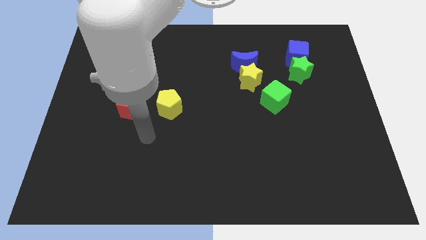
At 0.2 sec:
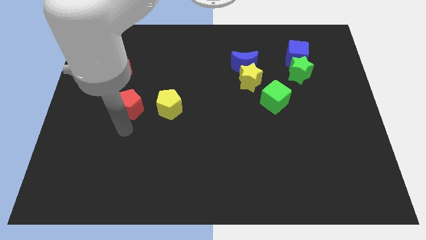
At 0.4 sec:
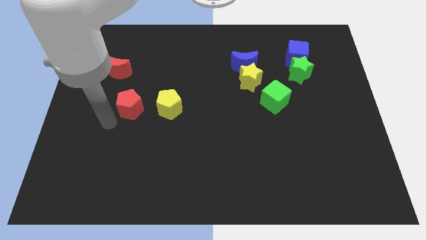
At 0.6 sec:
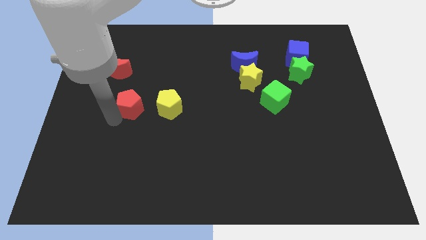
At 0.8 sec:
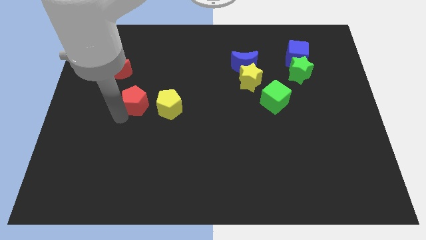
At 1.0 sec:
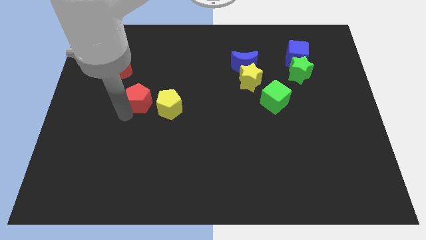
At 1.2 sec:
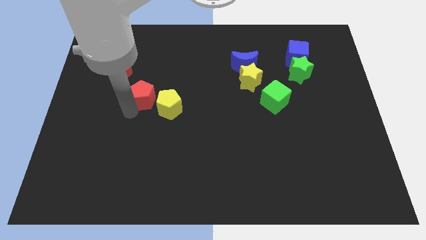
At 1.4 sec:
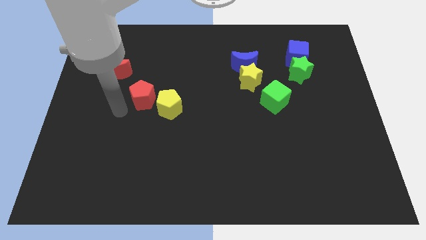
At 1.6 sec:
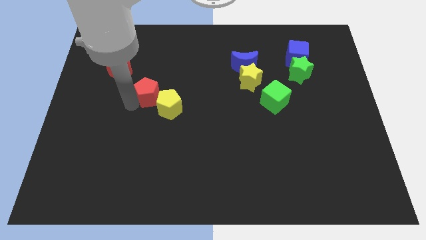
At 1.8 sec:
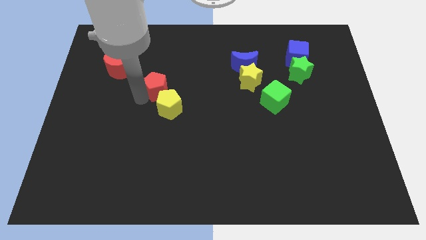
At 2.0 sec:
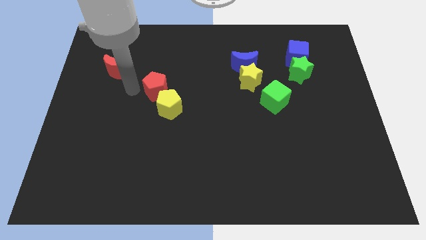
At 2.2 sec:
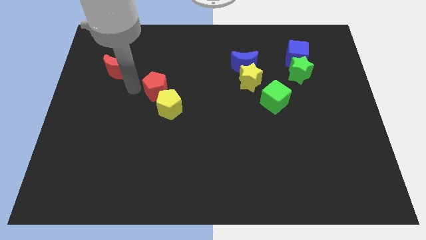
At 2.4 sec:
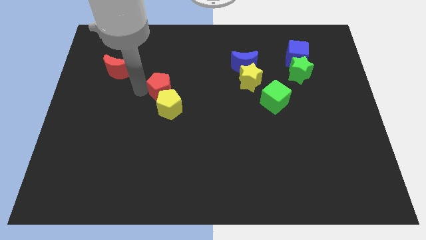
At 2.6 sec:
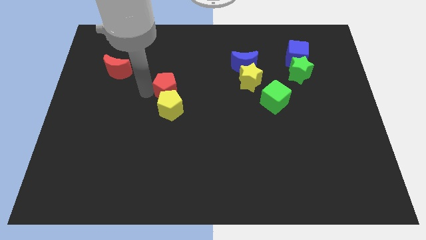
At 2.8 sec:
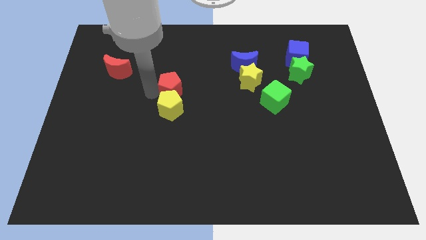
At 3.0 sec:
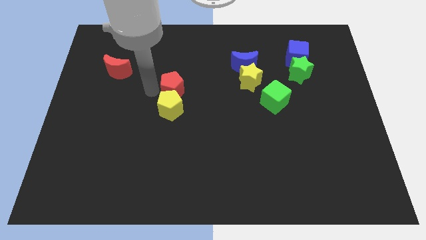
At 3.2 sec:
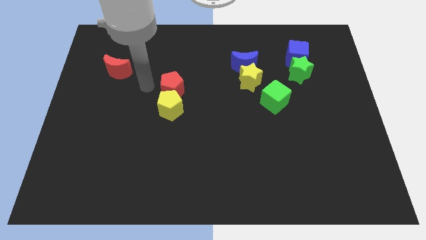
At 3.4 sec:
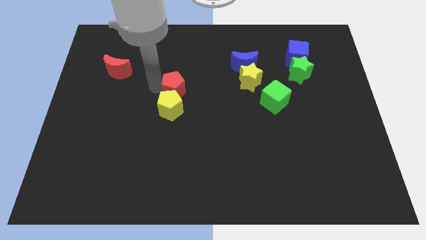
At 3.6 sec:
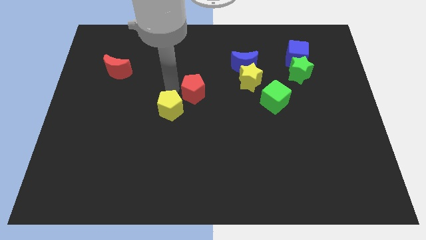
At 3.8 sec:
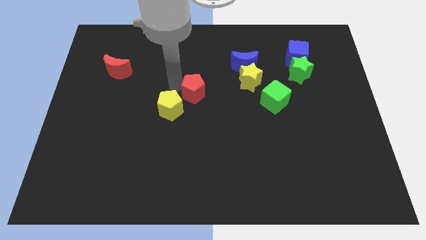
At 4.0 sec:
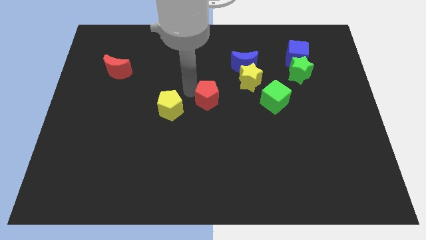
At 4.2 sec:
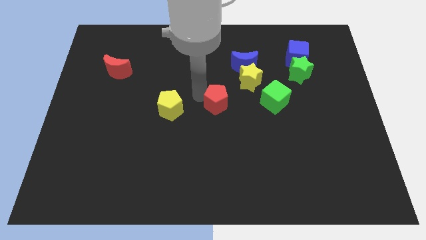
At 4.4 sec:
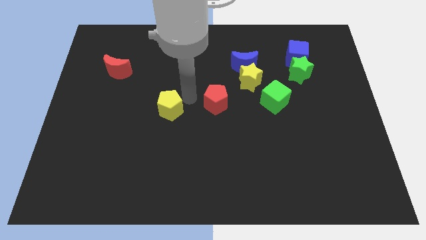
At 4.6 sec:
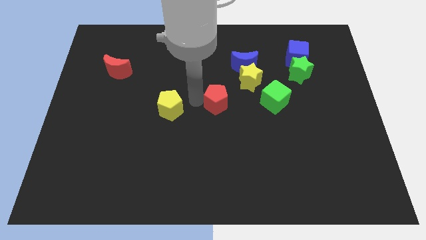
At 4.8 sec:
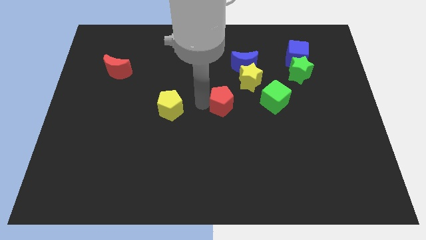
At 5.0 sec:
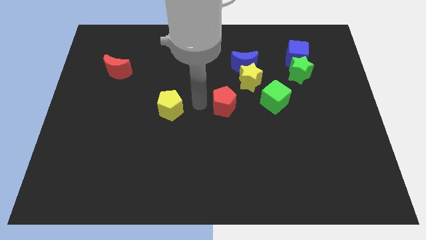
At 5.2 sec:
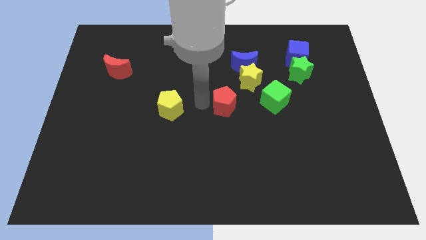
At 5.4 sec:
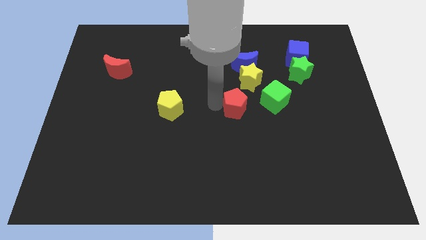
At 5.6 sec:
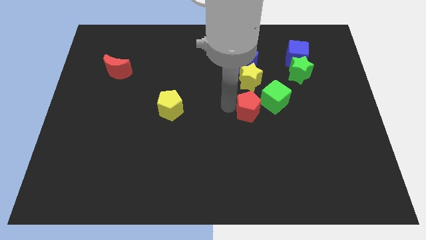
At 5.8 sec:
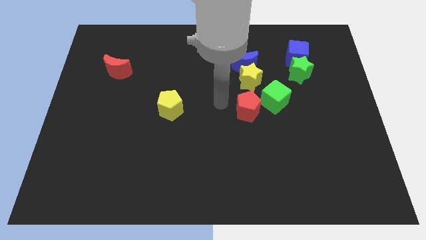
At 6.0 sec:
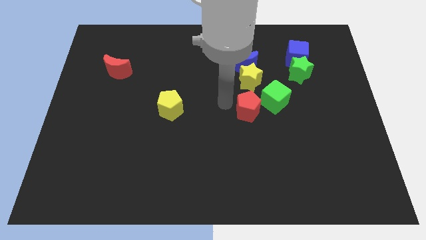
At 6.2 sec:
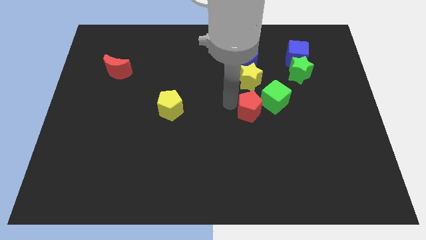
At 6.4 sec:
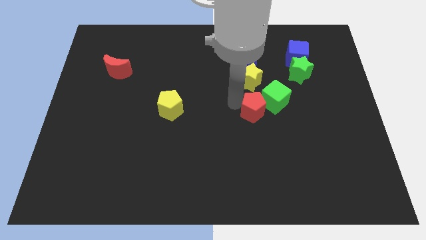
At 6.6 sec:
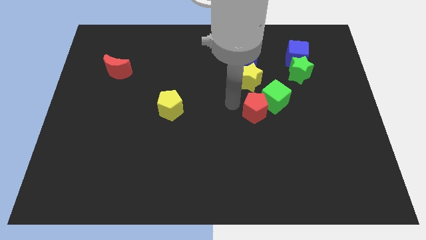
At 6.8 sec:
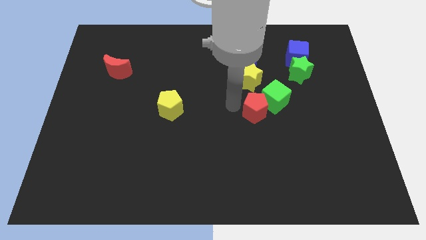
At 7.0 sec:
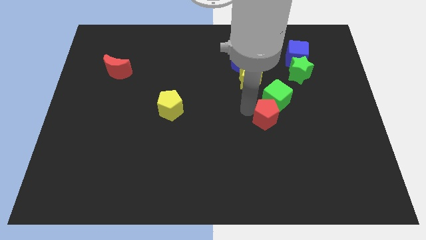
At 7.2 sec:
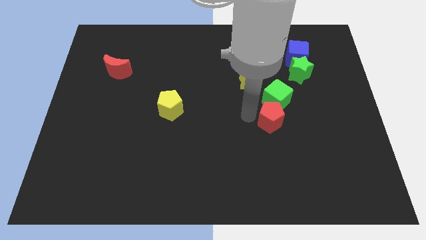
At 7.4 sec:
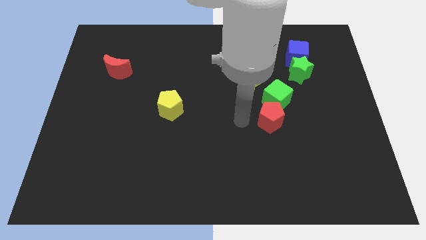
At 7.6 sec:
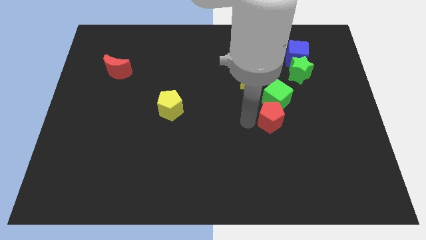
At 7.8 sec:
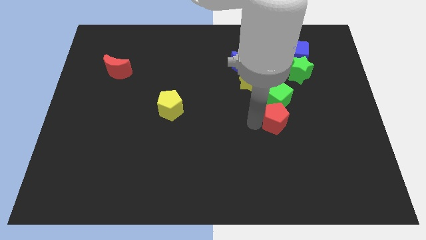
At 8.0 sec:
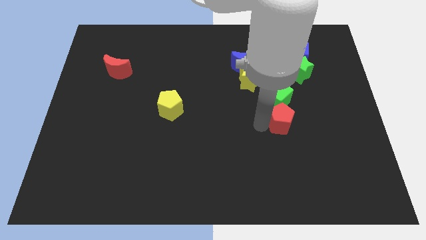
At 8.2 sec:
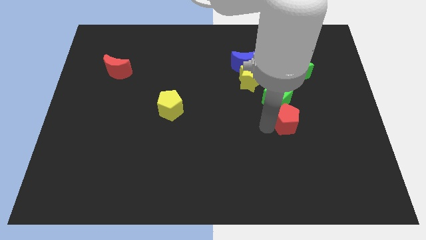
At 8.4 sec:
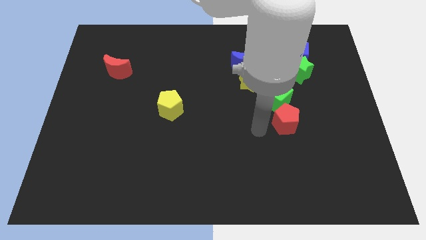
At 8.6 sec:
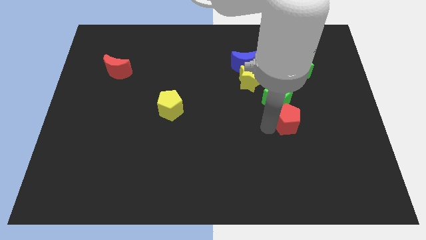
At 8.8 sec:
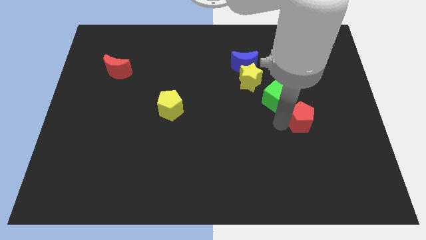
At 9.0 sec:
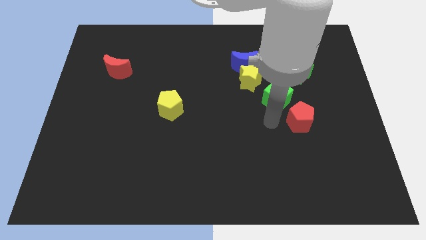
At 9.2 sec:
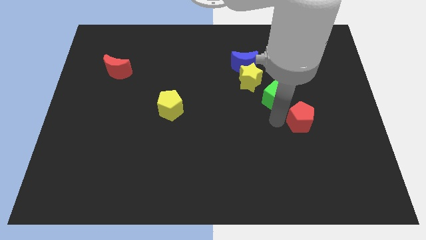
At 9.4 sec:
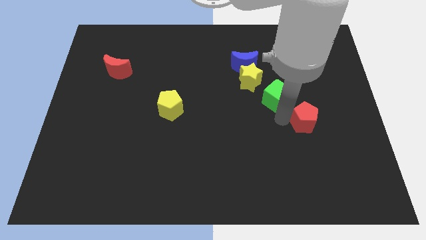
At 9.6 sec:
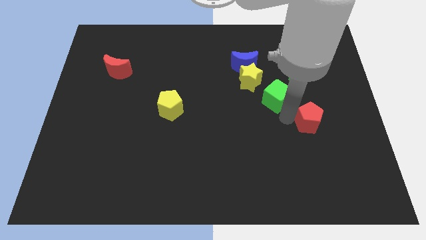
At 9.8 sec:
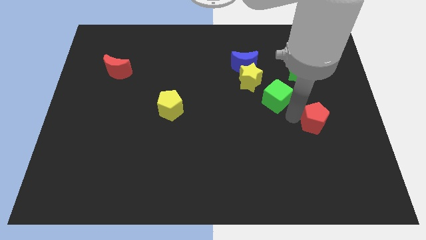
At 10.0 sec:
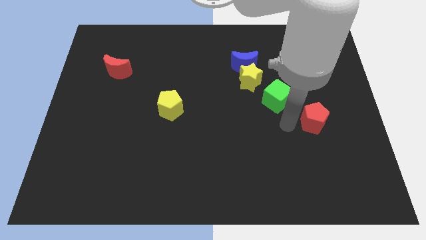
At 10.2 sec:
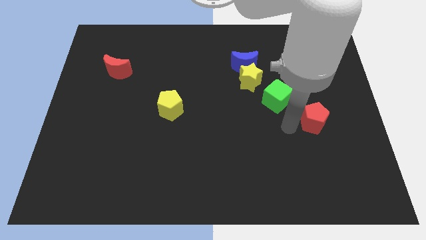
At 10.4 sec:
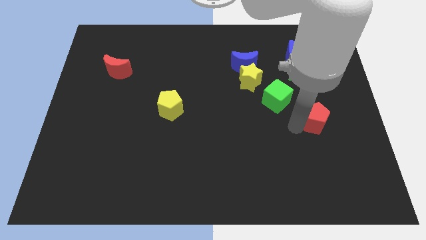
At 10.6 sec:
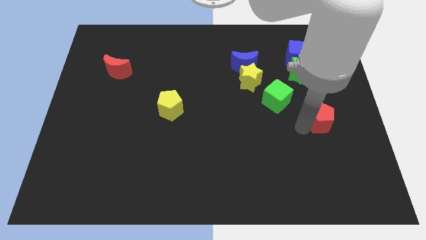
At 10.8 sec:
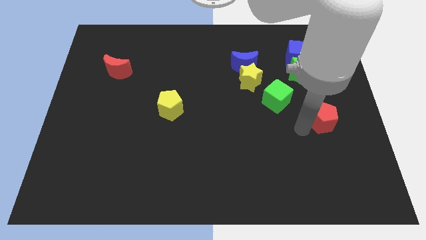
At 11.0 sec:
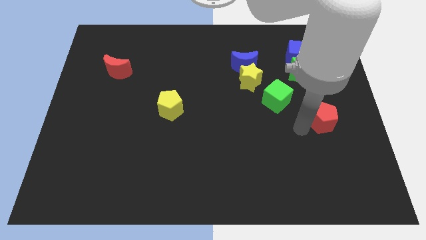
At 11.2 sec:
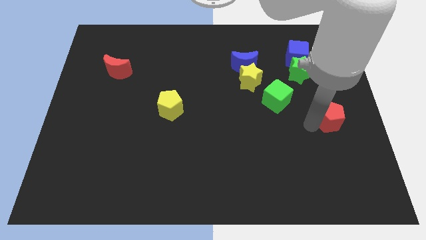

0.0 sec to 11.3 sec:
move the red pentagon to the right side

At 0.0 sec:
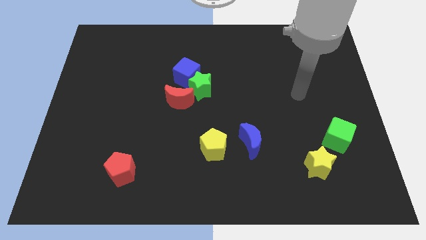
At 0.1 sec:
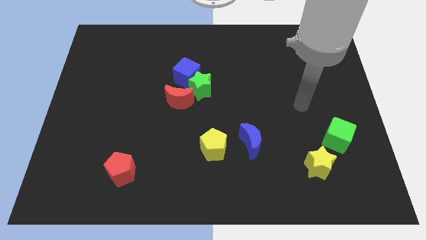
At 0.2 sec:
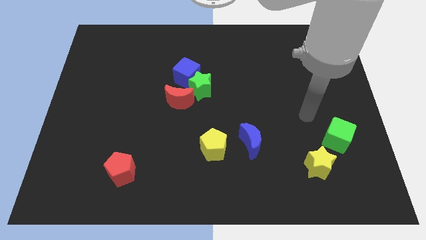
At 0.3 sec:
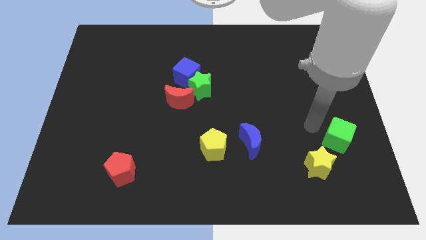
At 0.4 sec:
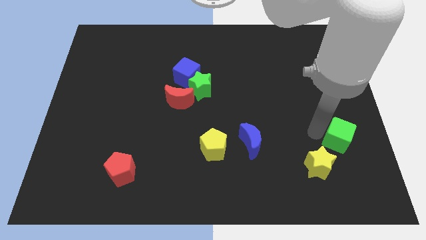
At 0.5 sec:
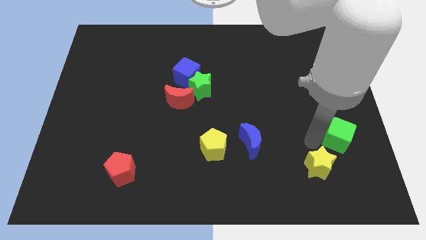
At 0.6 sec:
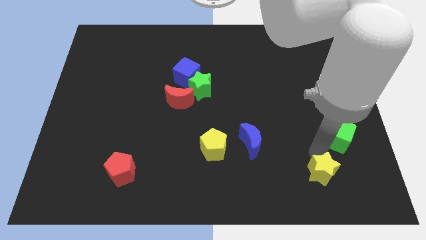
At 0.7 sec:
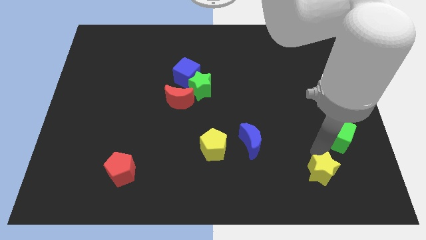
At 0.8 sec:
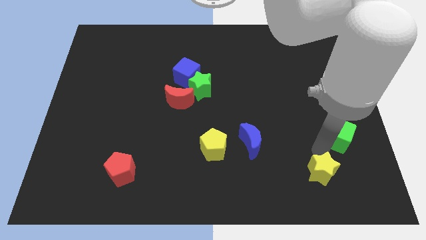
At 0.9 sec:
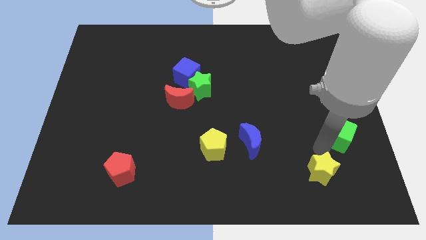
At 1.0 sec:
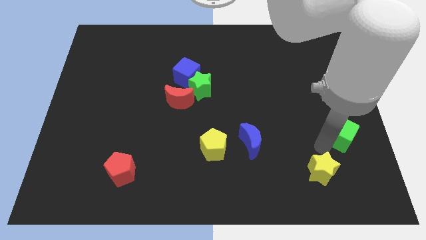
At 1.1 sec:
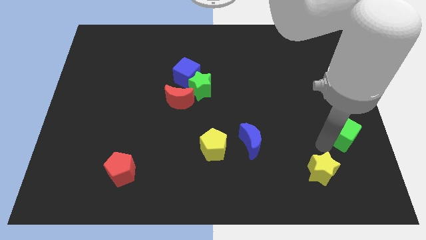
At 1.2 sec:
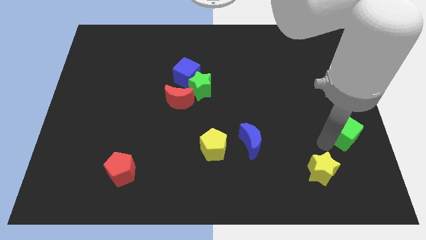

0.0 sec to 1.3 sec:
move the green cube to the right side
